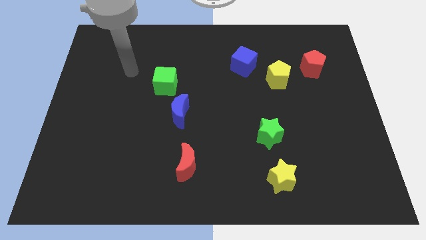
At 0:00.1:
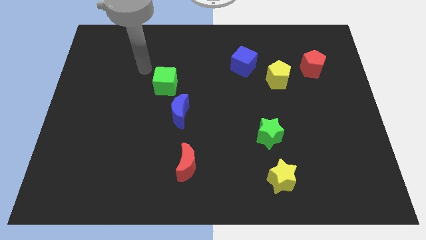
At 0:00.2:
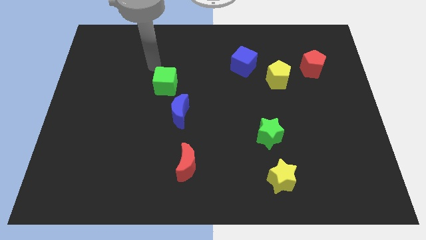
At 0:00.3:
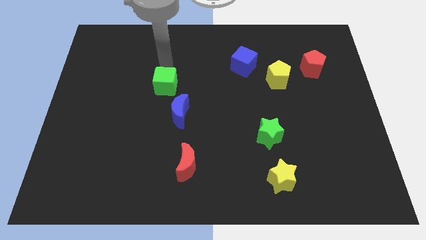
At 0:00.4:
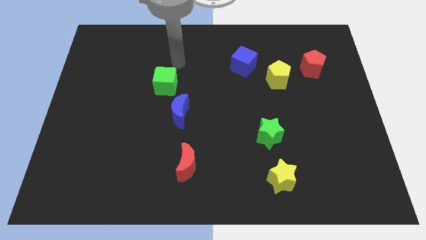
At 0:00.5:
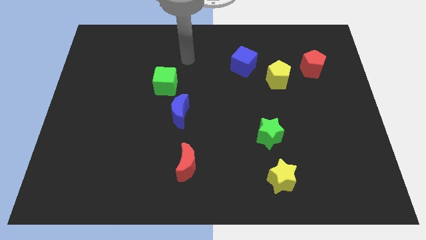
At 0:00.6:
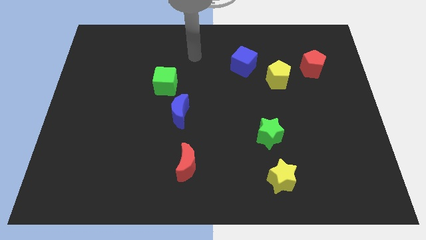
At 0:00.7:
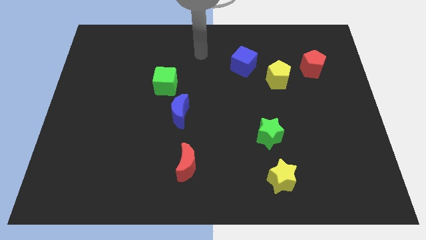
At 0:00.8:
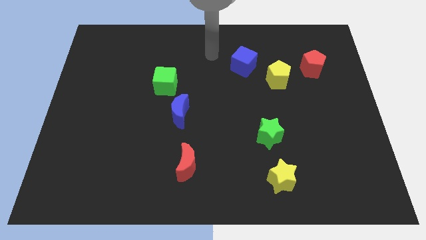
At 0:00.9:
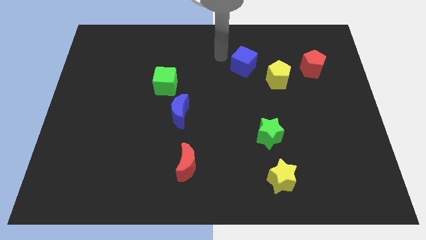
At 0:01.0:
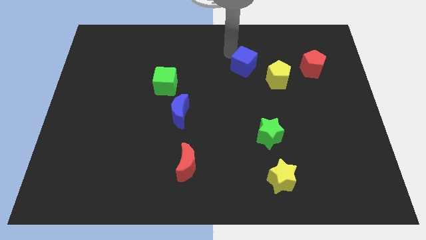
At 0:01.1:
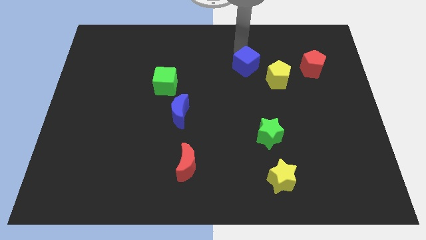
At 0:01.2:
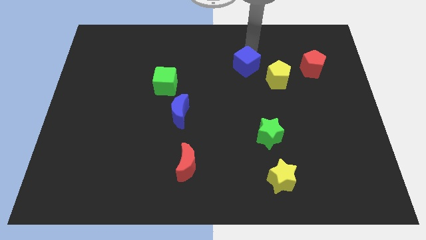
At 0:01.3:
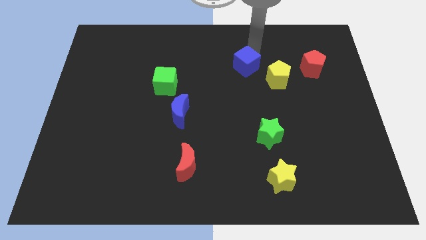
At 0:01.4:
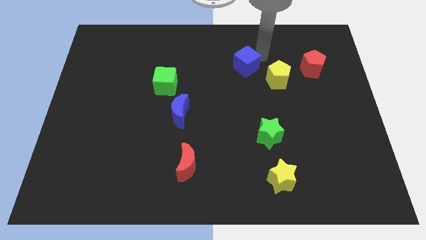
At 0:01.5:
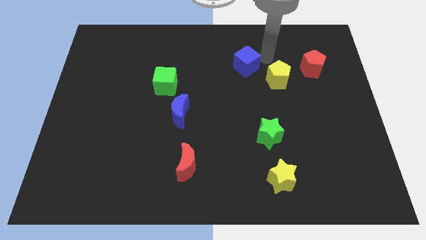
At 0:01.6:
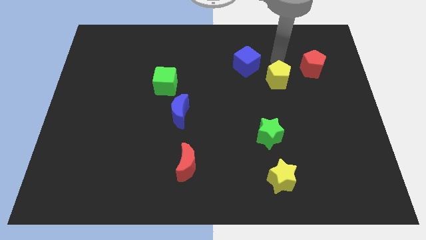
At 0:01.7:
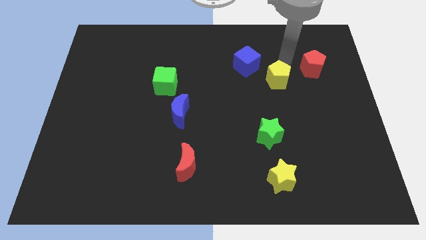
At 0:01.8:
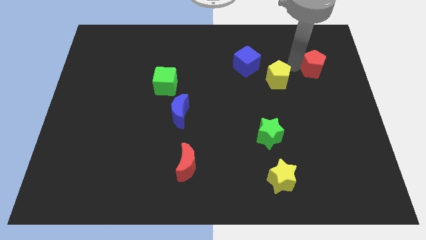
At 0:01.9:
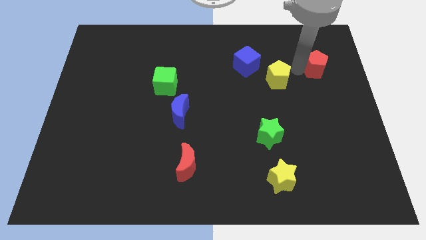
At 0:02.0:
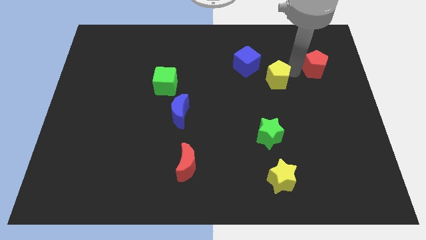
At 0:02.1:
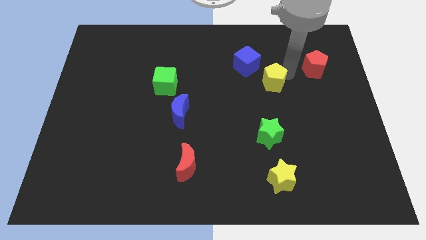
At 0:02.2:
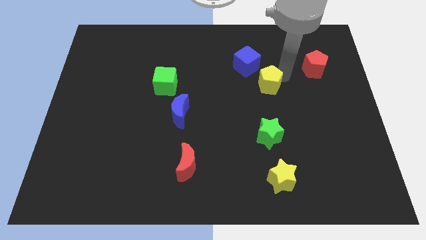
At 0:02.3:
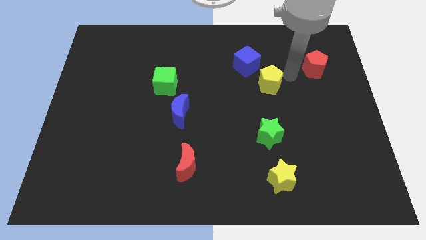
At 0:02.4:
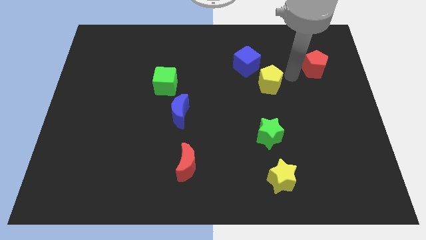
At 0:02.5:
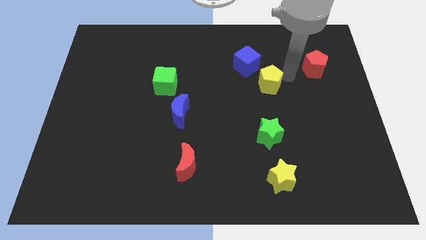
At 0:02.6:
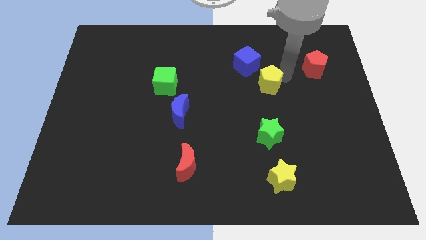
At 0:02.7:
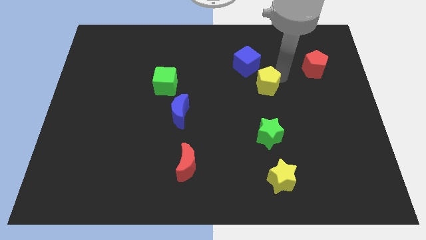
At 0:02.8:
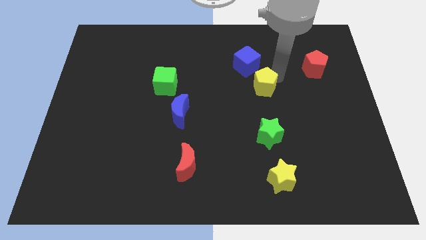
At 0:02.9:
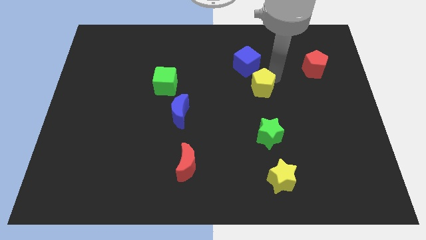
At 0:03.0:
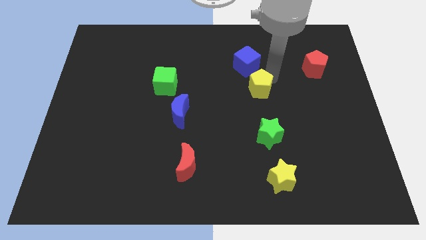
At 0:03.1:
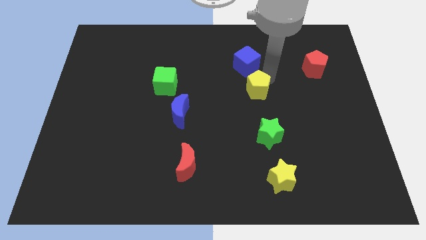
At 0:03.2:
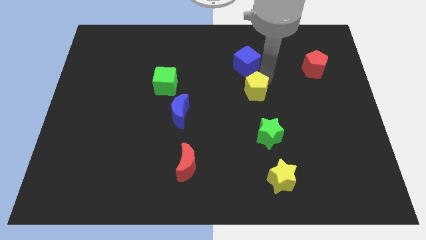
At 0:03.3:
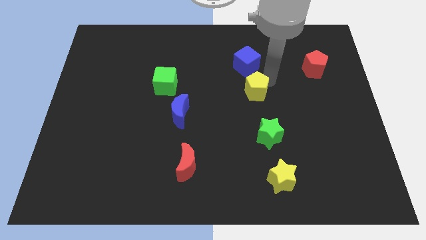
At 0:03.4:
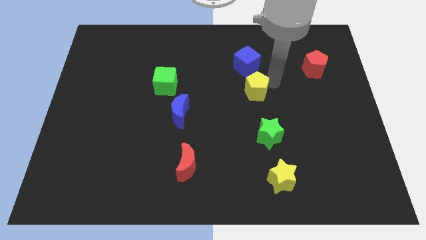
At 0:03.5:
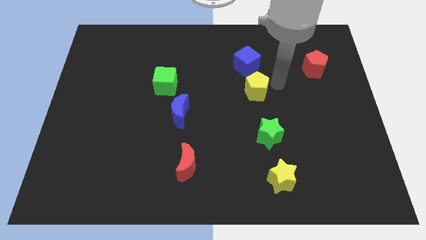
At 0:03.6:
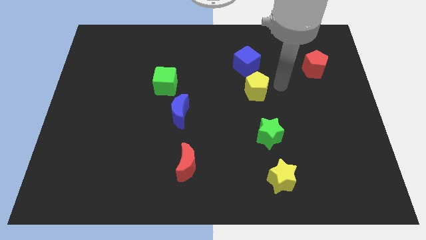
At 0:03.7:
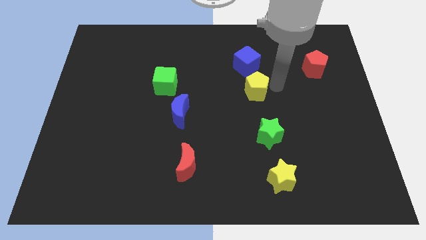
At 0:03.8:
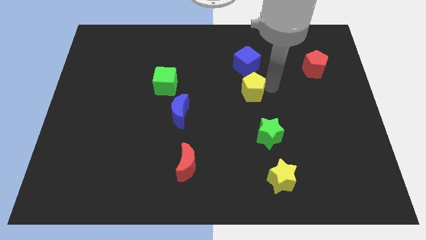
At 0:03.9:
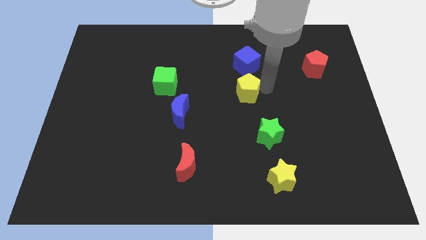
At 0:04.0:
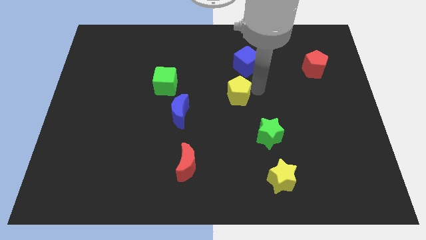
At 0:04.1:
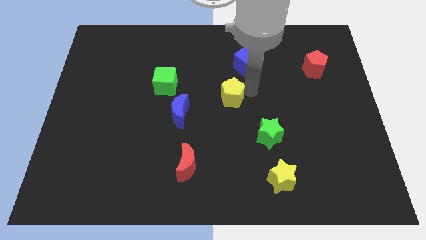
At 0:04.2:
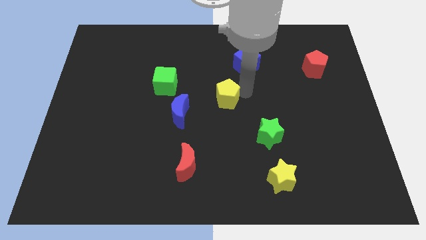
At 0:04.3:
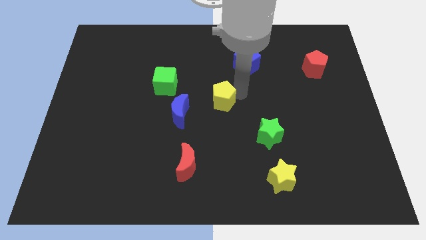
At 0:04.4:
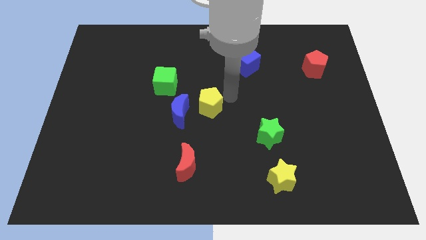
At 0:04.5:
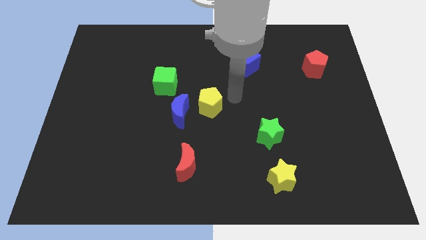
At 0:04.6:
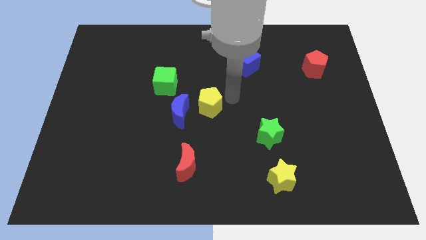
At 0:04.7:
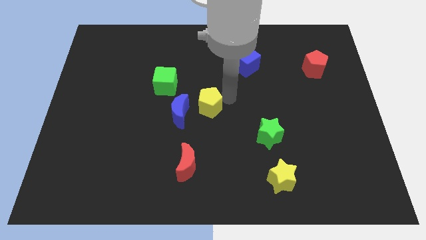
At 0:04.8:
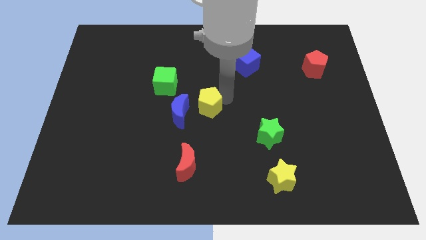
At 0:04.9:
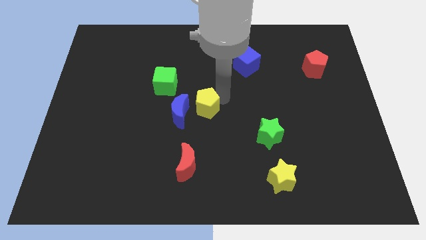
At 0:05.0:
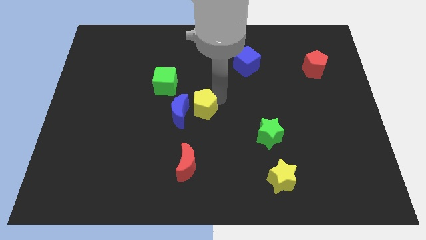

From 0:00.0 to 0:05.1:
slide the yellow pentagon close to the blue moon

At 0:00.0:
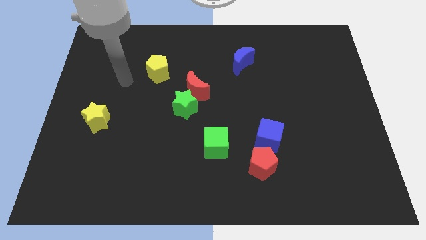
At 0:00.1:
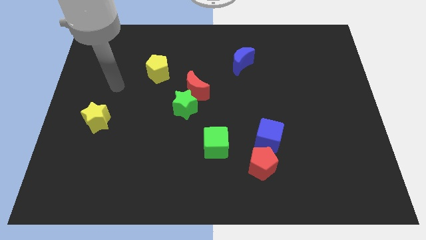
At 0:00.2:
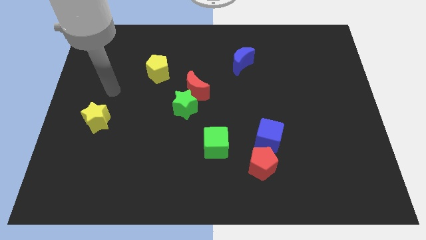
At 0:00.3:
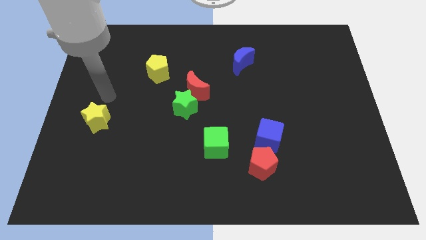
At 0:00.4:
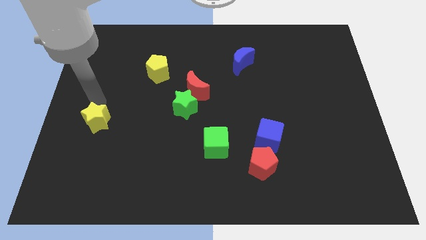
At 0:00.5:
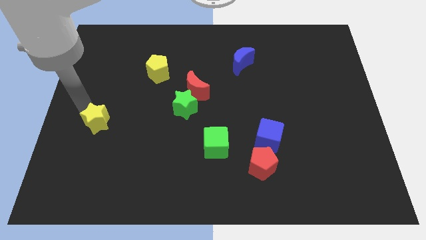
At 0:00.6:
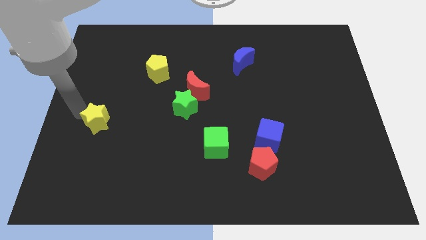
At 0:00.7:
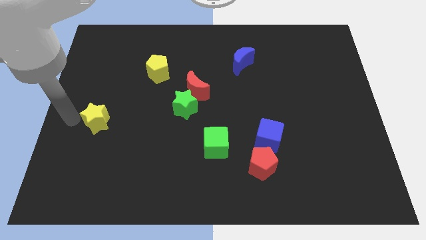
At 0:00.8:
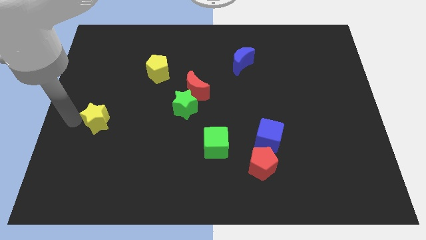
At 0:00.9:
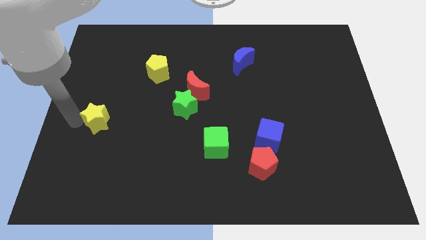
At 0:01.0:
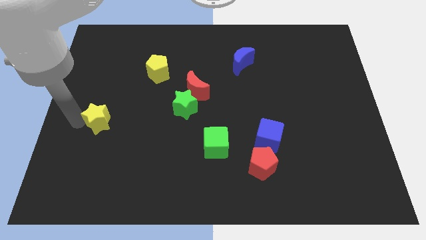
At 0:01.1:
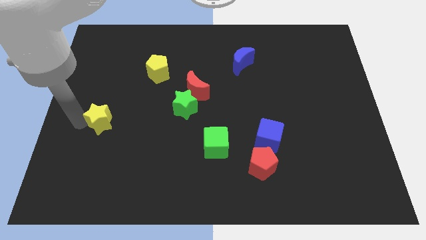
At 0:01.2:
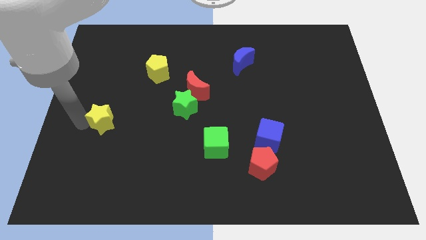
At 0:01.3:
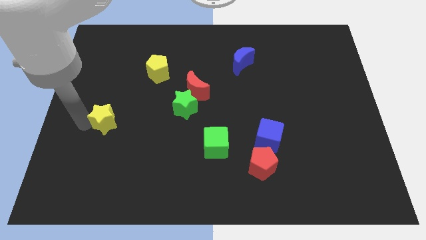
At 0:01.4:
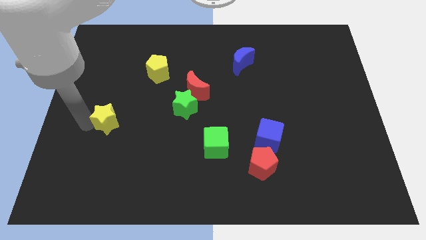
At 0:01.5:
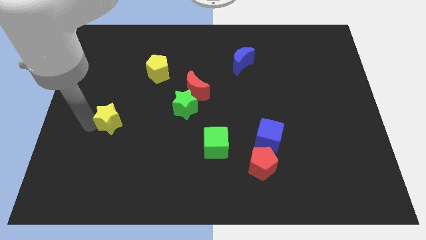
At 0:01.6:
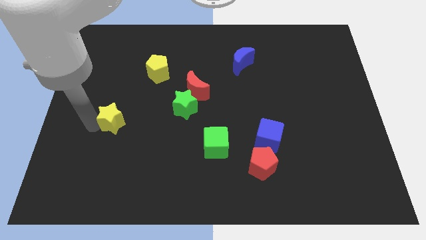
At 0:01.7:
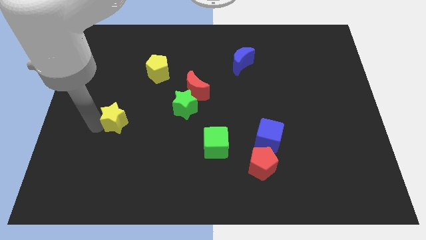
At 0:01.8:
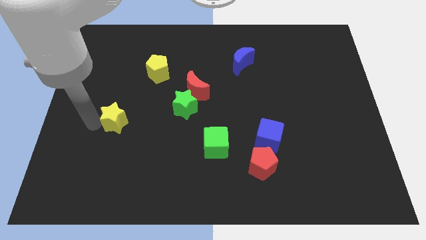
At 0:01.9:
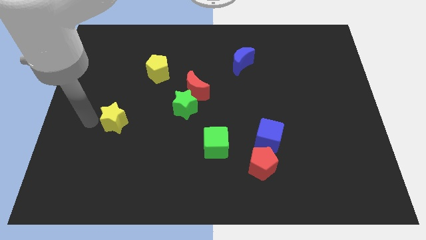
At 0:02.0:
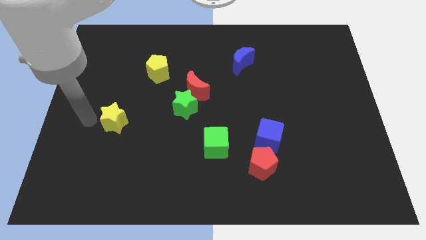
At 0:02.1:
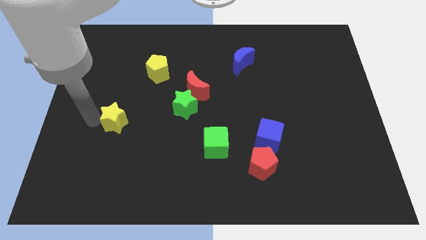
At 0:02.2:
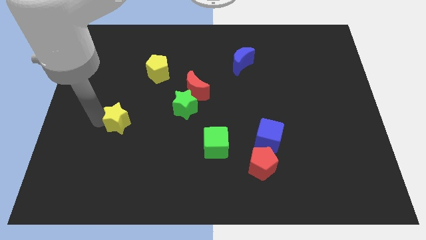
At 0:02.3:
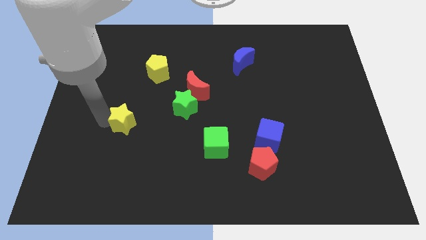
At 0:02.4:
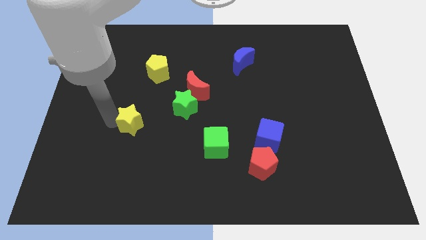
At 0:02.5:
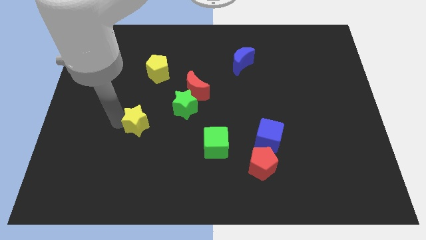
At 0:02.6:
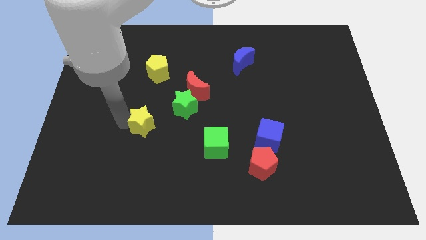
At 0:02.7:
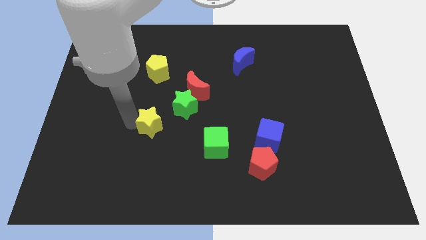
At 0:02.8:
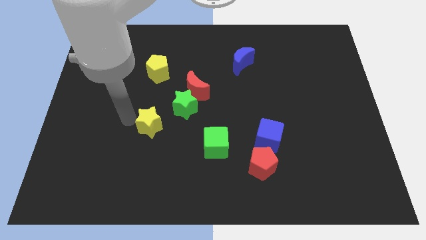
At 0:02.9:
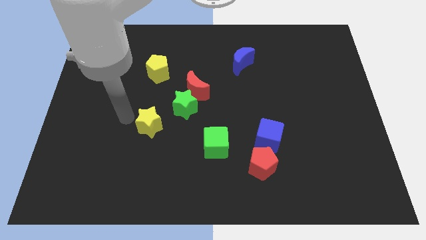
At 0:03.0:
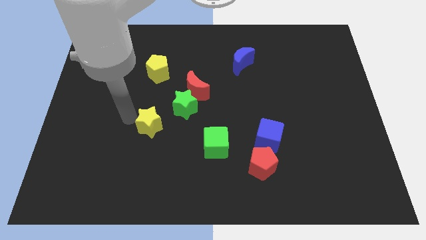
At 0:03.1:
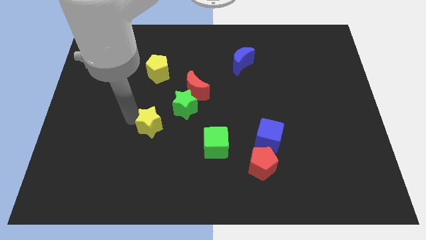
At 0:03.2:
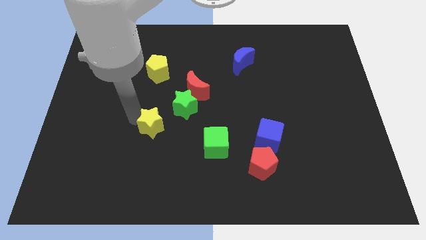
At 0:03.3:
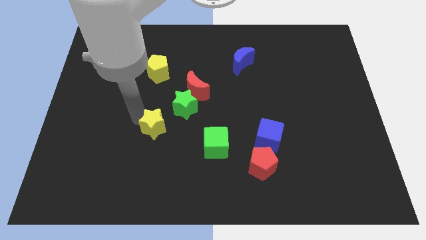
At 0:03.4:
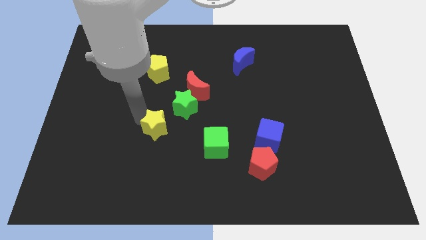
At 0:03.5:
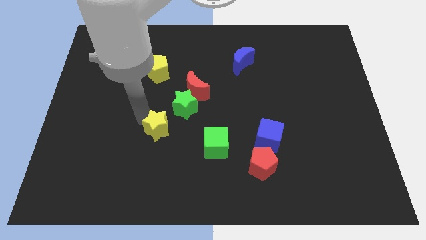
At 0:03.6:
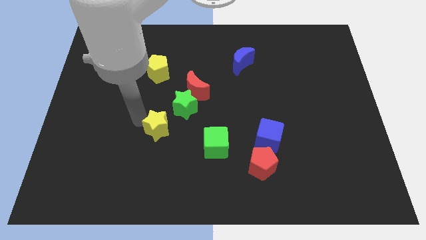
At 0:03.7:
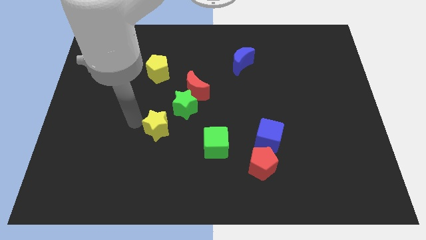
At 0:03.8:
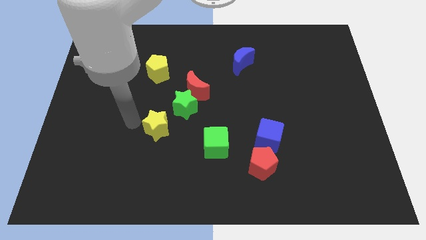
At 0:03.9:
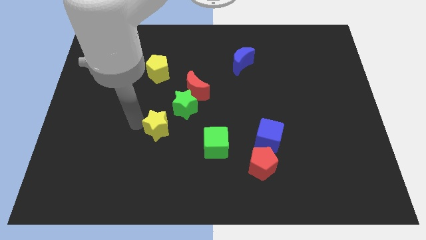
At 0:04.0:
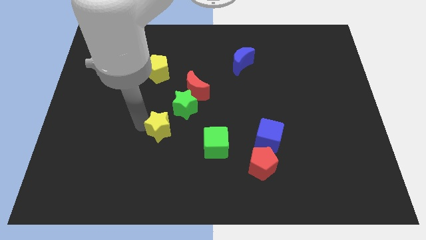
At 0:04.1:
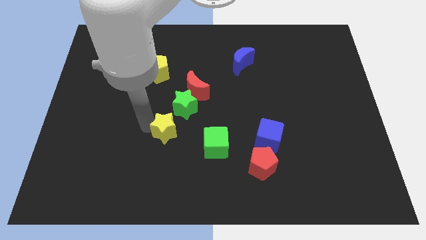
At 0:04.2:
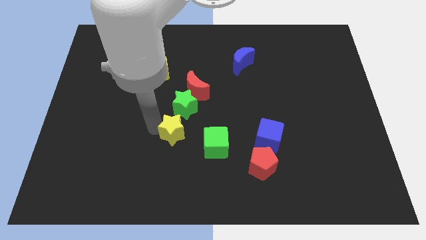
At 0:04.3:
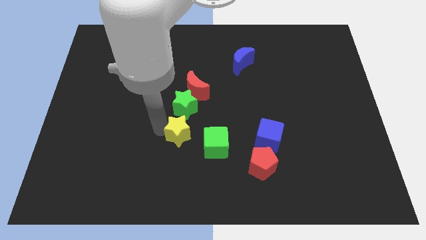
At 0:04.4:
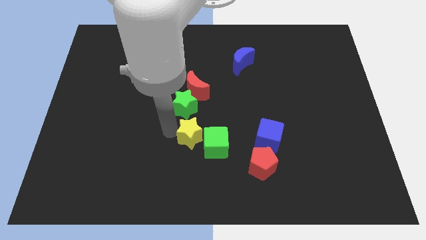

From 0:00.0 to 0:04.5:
slide the yellow star to the green cube
